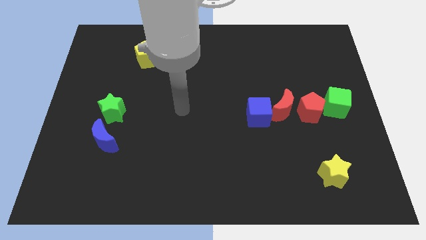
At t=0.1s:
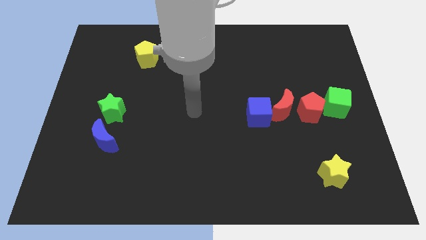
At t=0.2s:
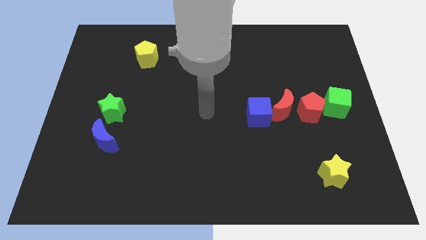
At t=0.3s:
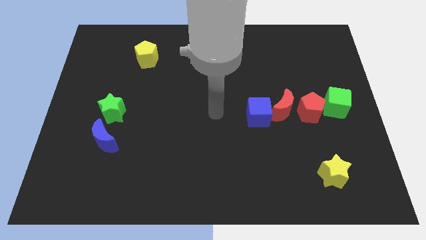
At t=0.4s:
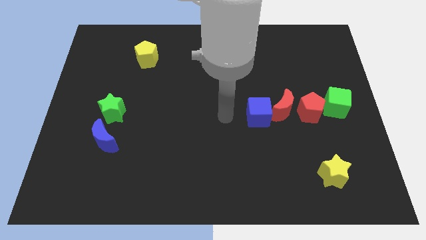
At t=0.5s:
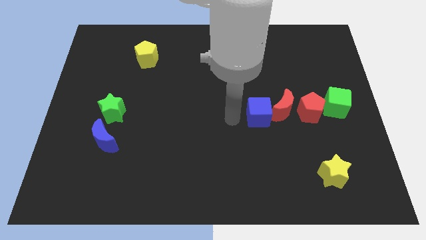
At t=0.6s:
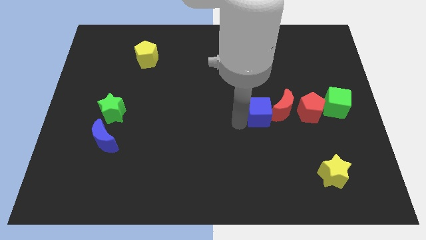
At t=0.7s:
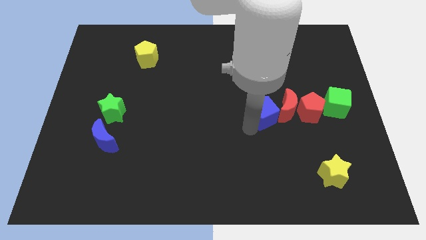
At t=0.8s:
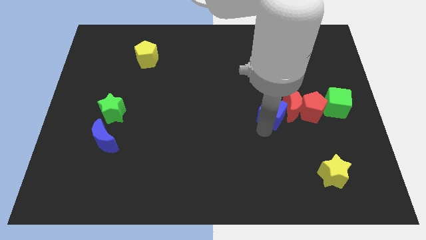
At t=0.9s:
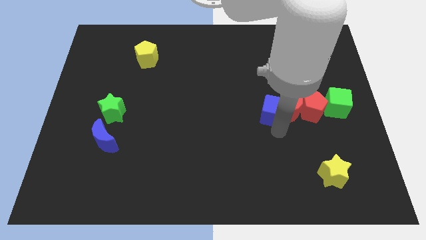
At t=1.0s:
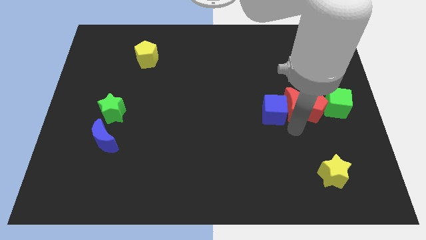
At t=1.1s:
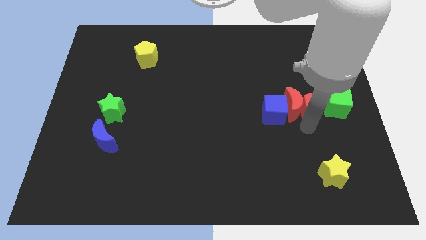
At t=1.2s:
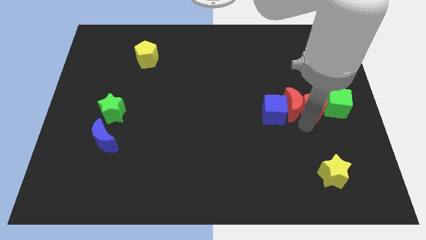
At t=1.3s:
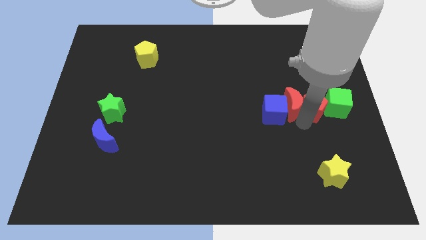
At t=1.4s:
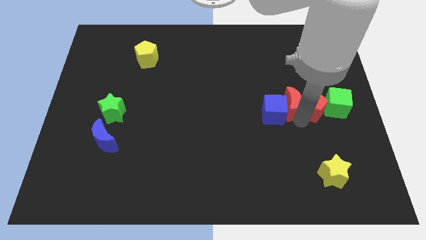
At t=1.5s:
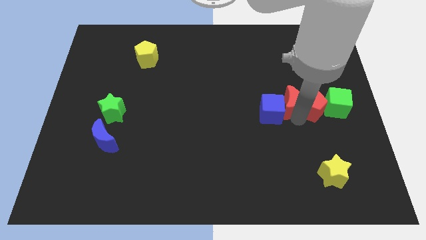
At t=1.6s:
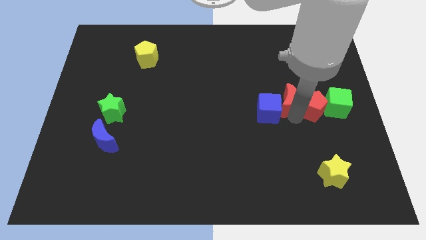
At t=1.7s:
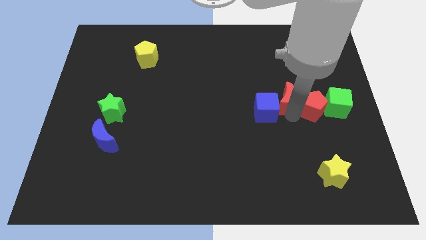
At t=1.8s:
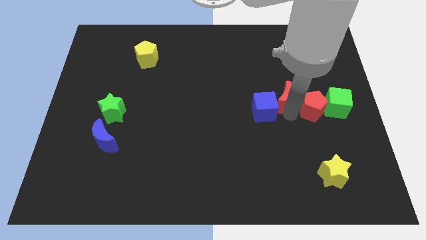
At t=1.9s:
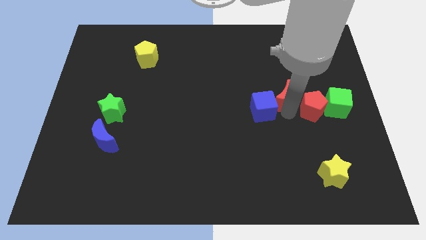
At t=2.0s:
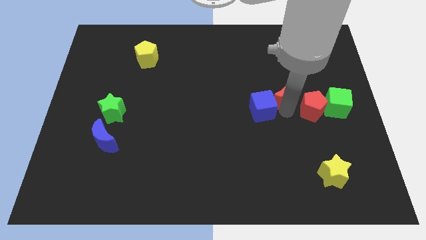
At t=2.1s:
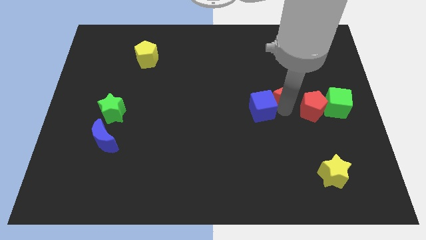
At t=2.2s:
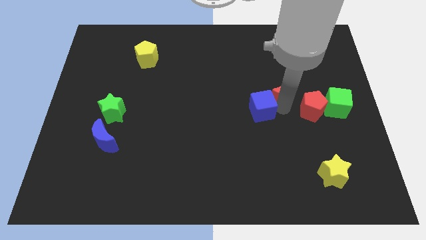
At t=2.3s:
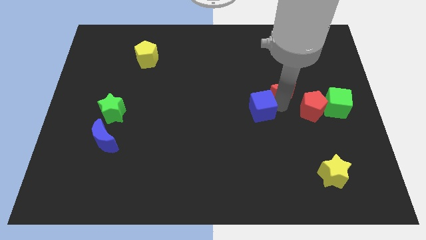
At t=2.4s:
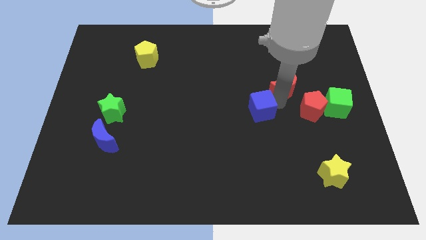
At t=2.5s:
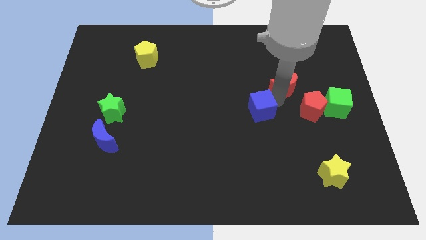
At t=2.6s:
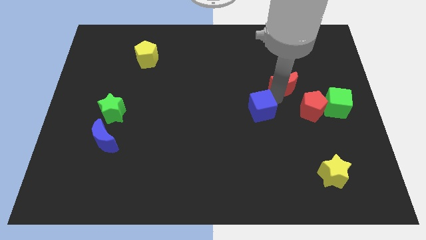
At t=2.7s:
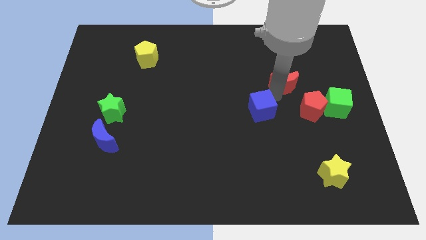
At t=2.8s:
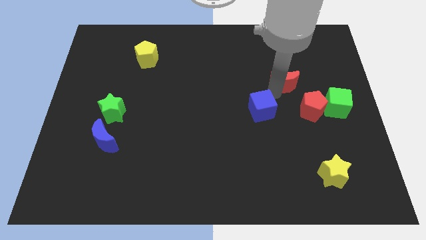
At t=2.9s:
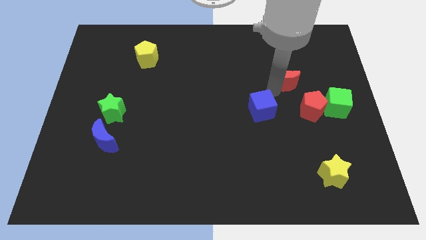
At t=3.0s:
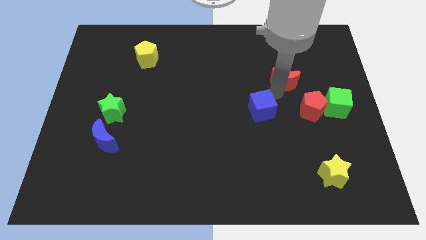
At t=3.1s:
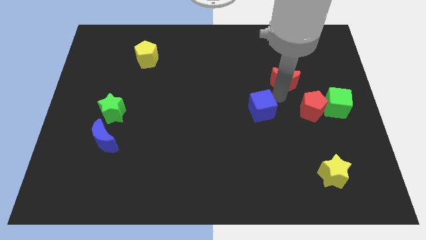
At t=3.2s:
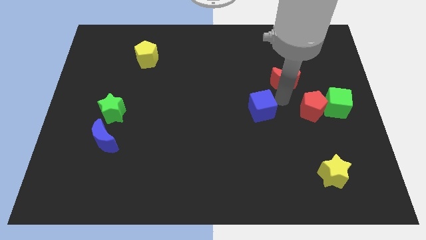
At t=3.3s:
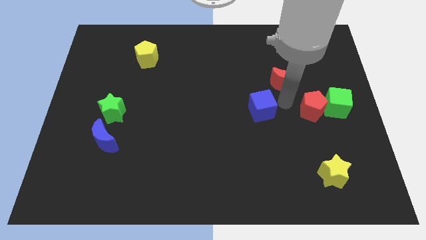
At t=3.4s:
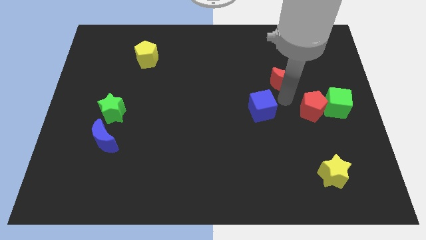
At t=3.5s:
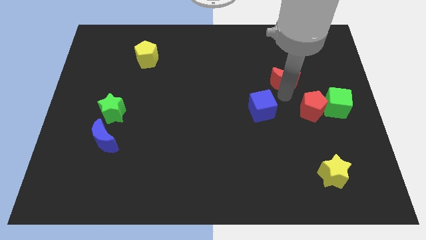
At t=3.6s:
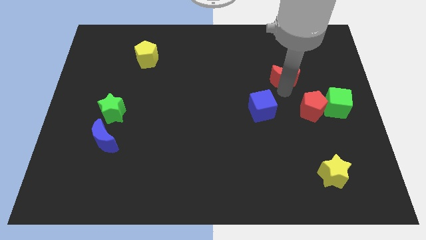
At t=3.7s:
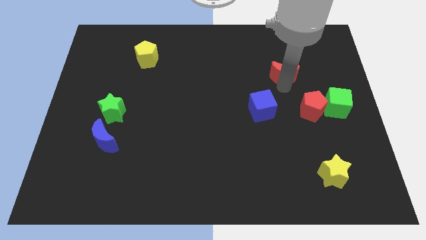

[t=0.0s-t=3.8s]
separate the red moon from the red pentagon and blue cube

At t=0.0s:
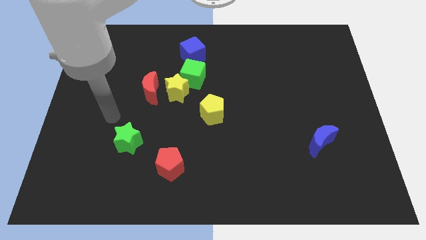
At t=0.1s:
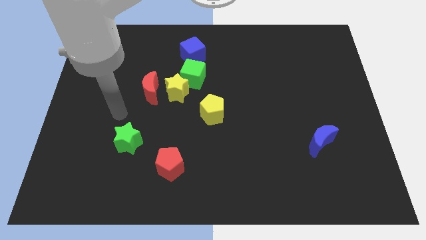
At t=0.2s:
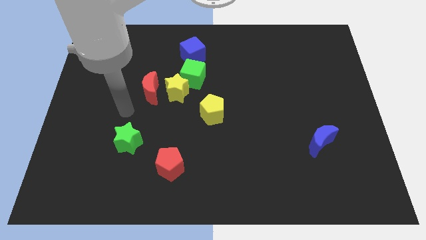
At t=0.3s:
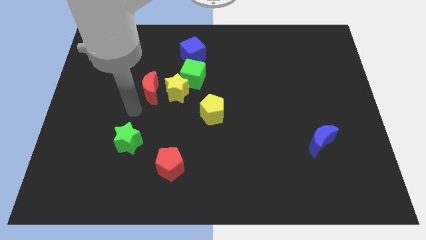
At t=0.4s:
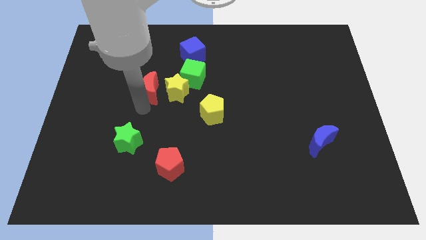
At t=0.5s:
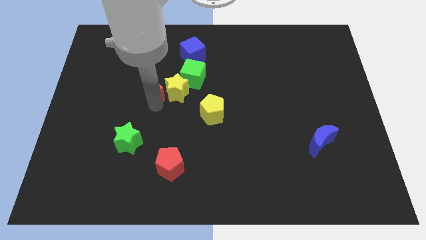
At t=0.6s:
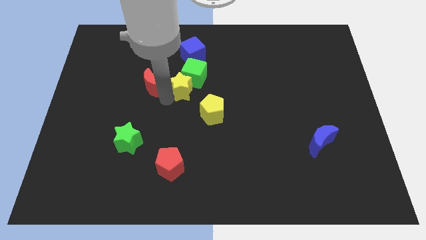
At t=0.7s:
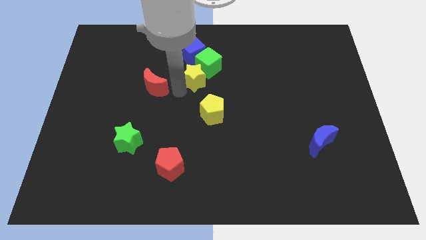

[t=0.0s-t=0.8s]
move the red moon away from the yellow star

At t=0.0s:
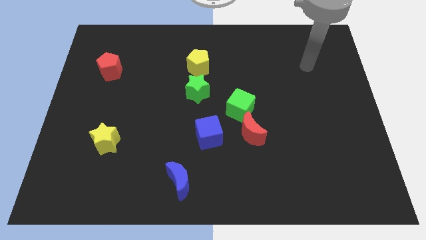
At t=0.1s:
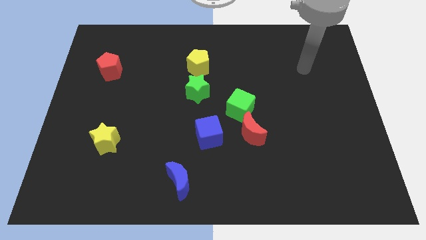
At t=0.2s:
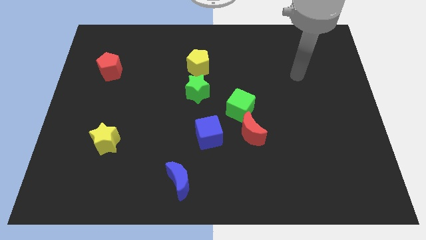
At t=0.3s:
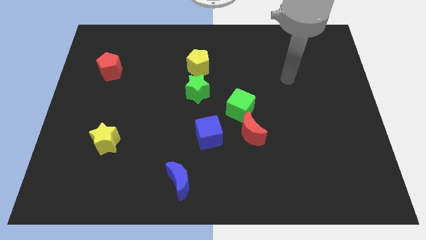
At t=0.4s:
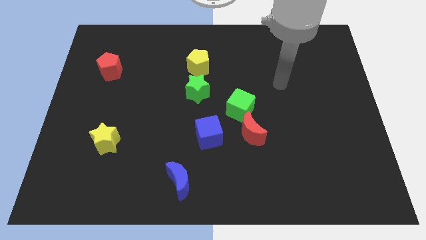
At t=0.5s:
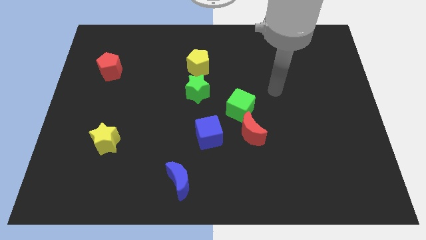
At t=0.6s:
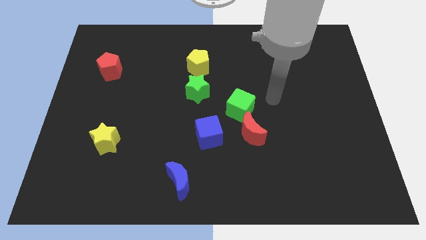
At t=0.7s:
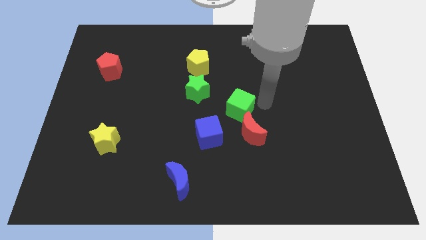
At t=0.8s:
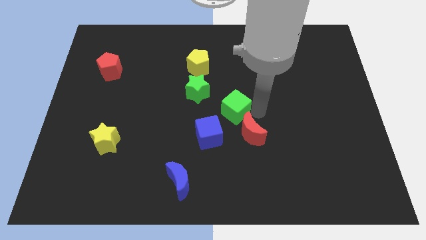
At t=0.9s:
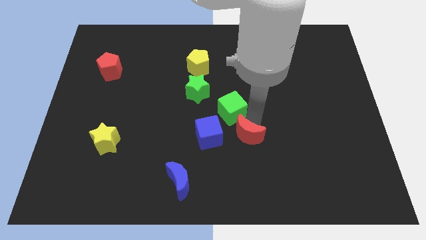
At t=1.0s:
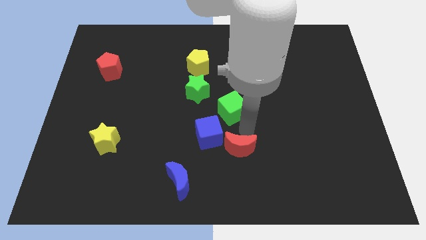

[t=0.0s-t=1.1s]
pull the green cube apart from the red moon

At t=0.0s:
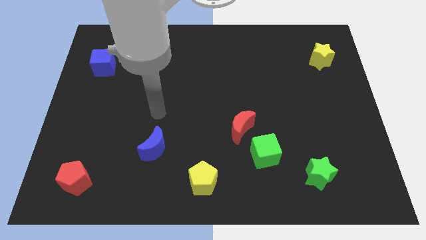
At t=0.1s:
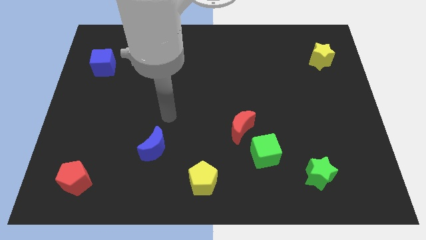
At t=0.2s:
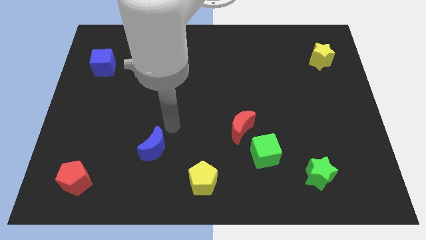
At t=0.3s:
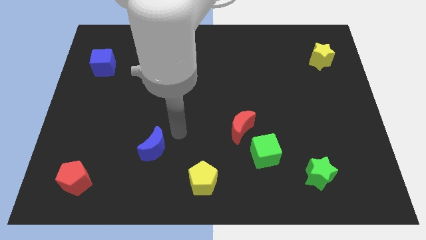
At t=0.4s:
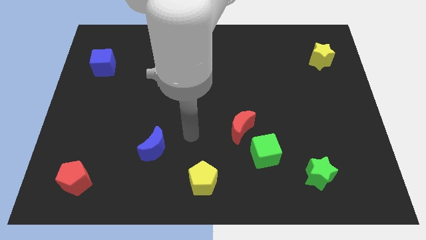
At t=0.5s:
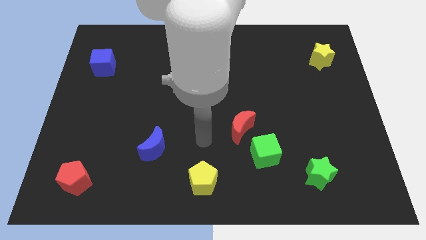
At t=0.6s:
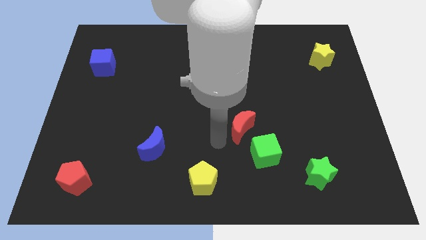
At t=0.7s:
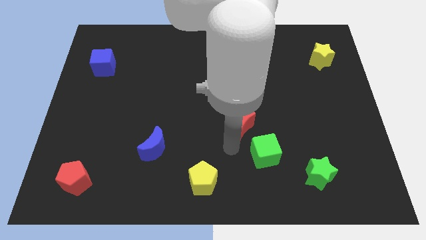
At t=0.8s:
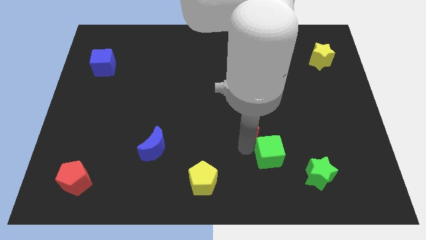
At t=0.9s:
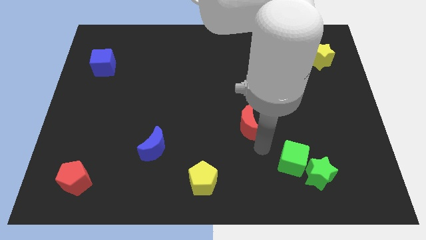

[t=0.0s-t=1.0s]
pull the red moon apart from the green cube

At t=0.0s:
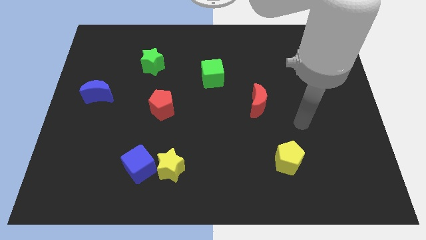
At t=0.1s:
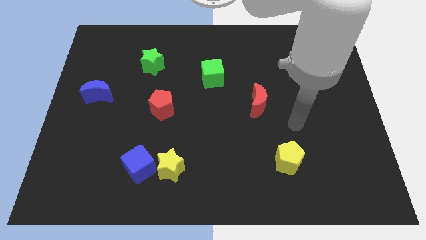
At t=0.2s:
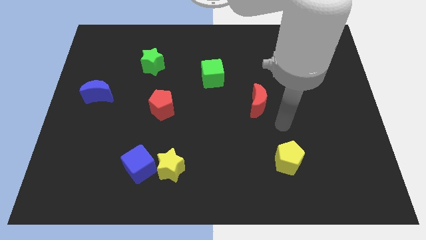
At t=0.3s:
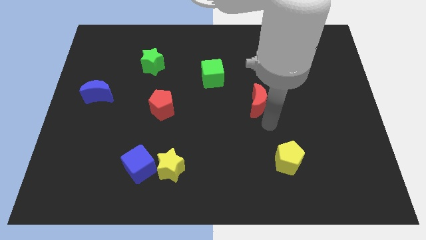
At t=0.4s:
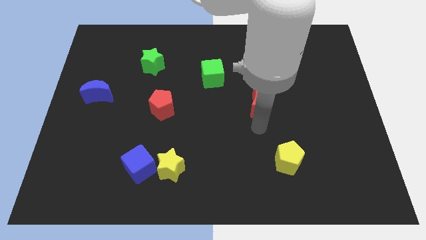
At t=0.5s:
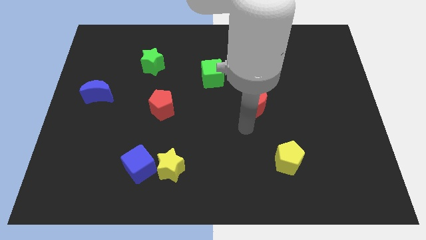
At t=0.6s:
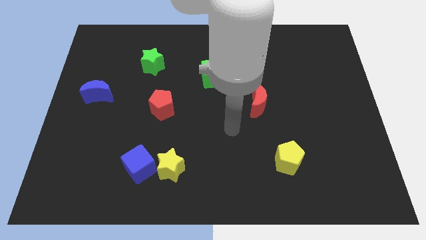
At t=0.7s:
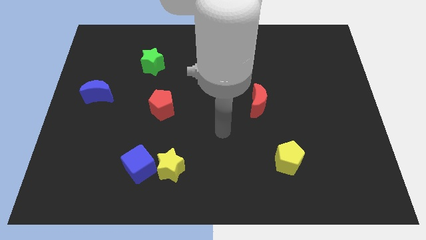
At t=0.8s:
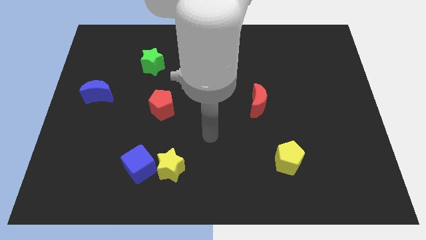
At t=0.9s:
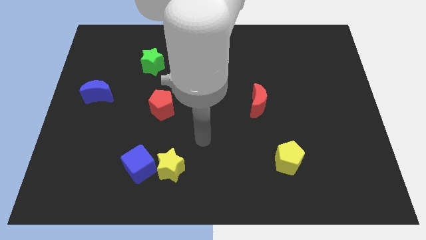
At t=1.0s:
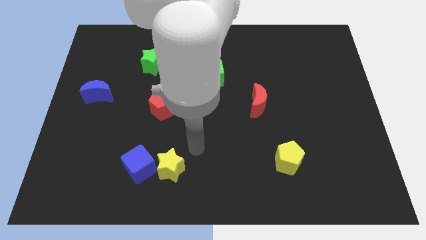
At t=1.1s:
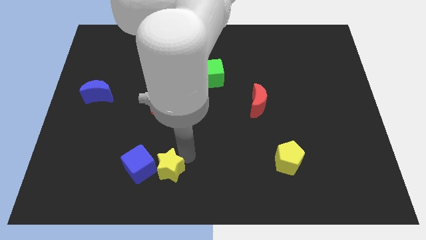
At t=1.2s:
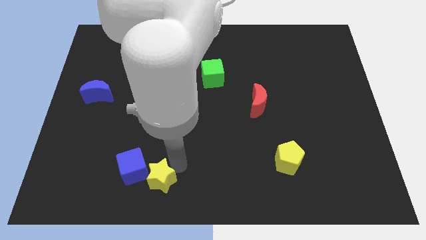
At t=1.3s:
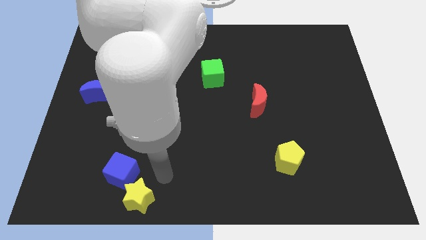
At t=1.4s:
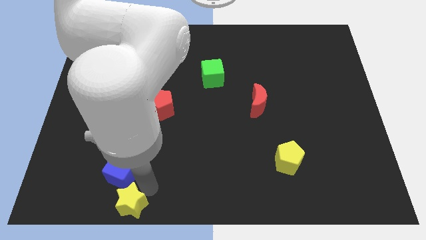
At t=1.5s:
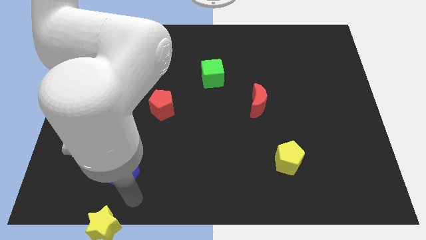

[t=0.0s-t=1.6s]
move the blue cube away from the yellow star

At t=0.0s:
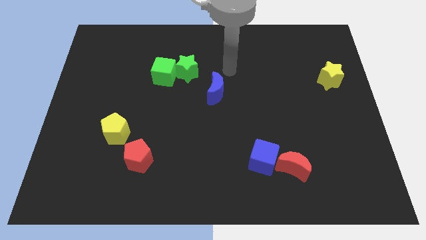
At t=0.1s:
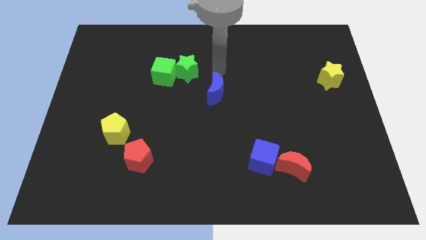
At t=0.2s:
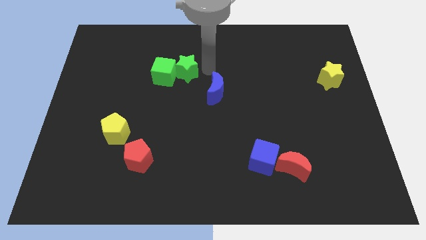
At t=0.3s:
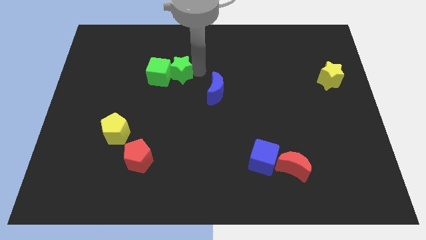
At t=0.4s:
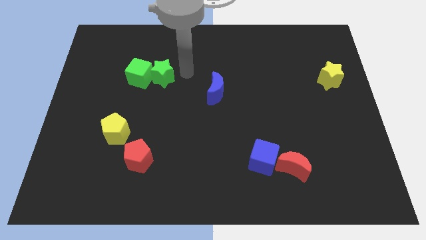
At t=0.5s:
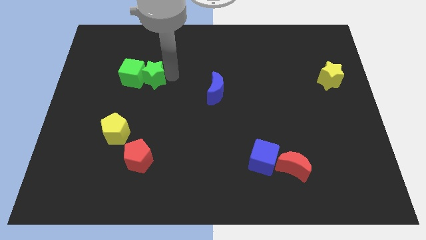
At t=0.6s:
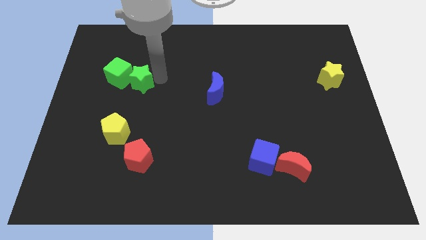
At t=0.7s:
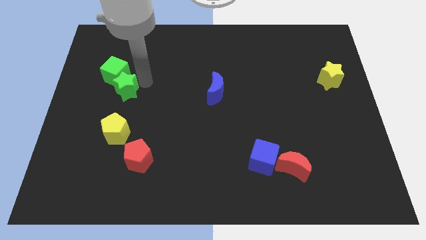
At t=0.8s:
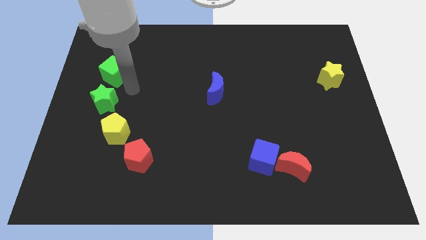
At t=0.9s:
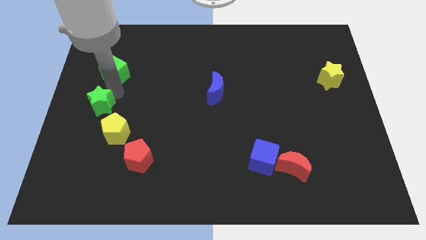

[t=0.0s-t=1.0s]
move the green cube away from the green star

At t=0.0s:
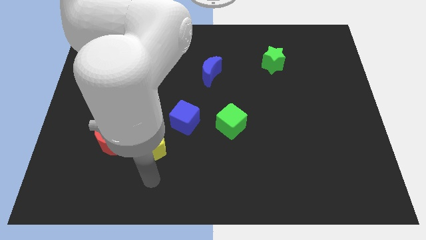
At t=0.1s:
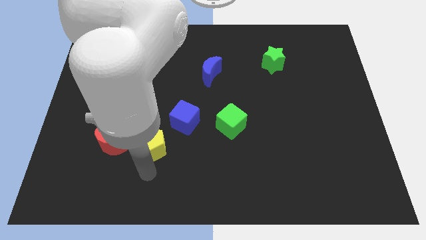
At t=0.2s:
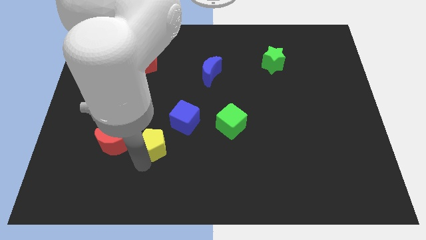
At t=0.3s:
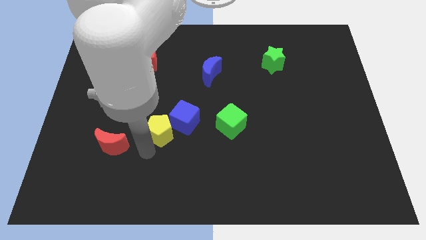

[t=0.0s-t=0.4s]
pull the red moon apart from the yellow pentagon
